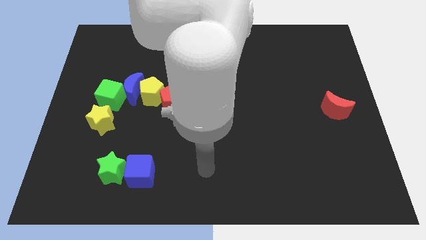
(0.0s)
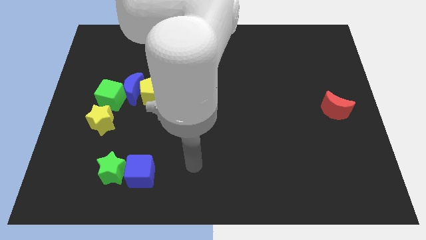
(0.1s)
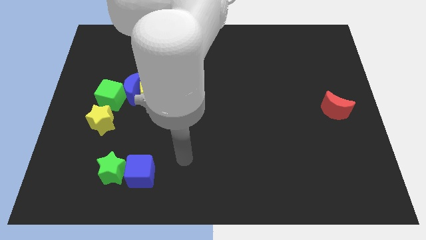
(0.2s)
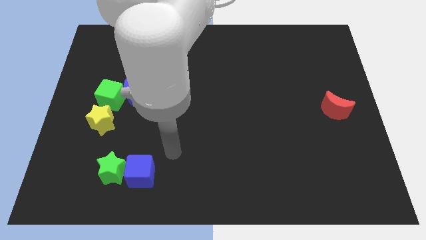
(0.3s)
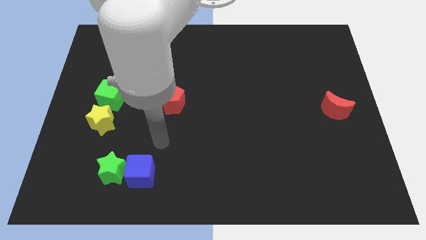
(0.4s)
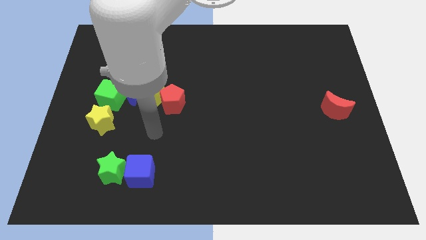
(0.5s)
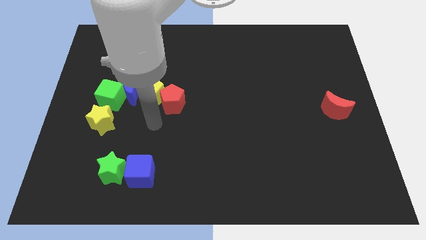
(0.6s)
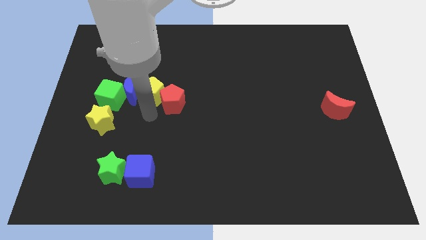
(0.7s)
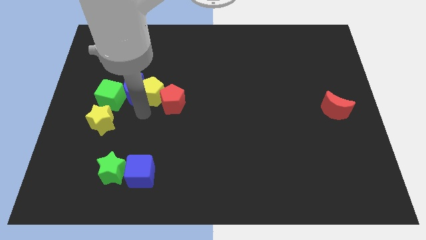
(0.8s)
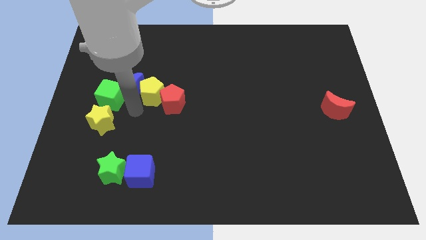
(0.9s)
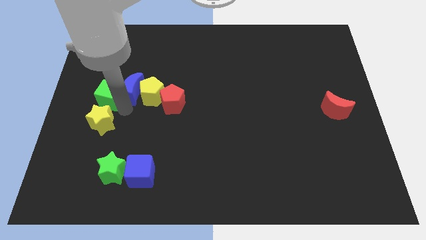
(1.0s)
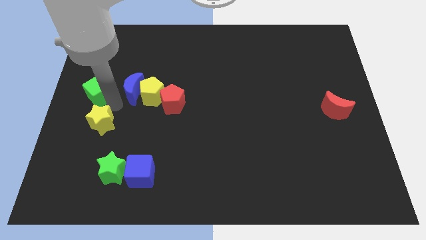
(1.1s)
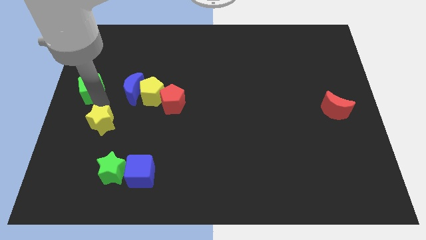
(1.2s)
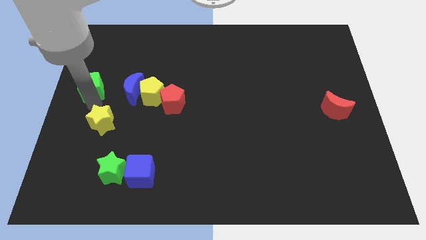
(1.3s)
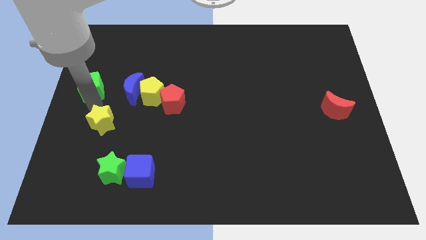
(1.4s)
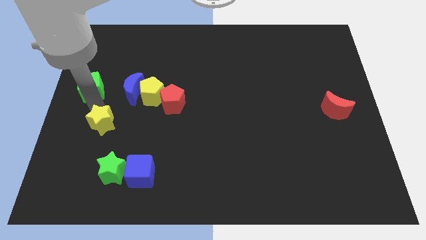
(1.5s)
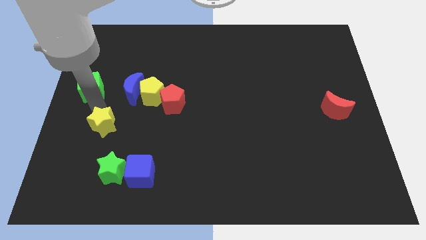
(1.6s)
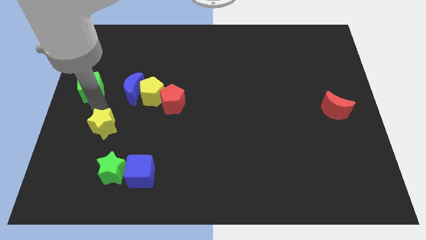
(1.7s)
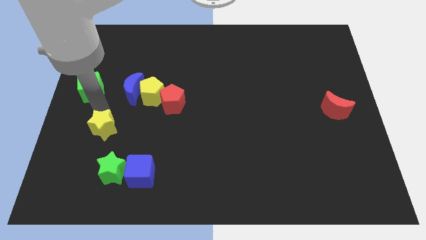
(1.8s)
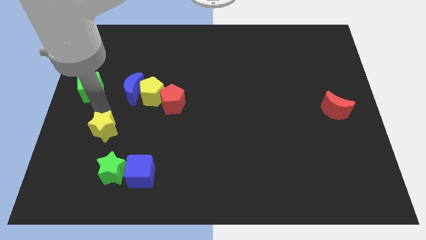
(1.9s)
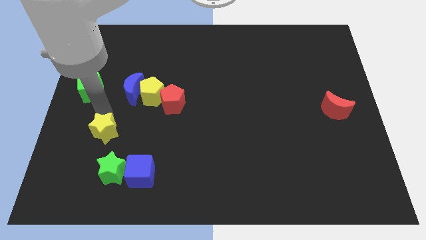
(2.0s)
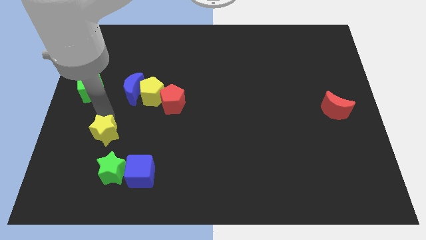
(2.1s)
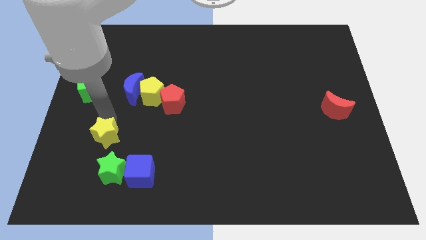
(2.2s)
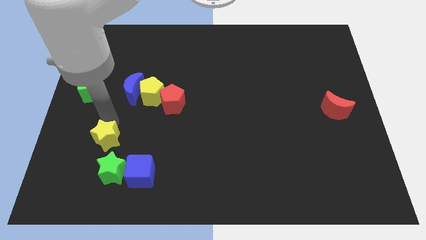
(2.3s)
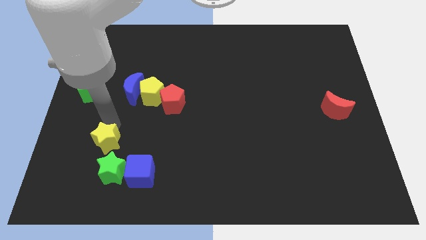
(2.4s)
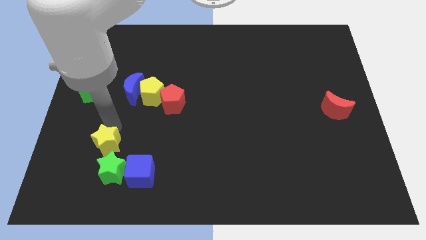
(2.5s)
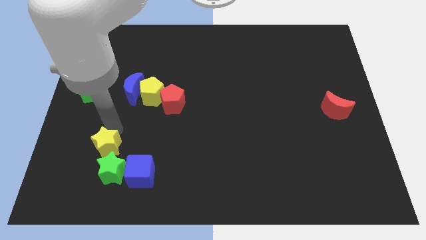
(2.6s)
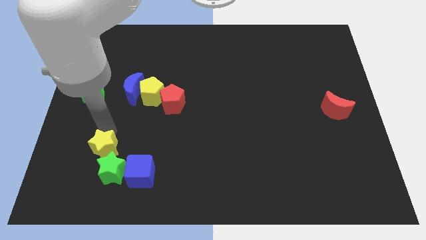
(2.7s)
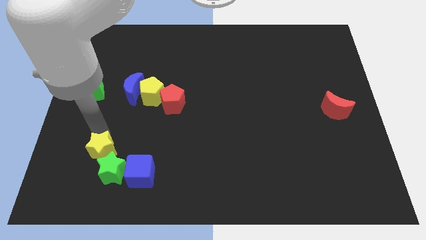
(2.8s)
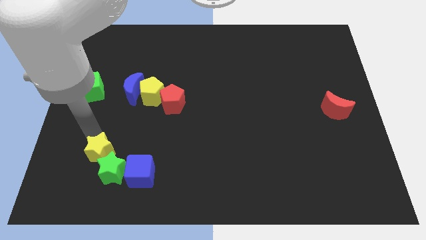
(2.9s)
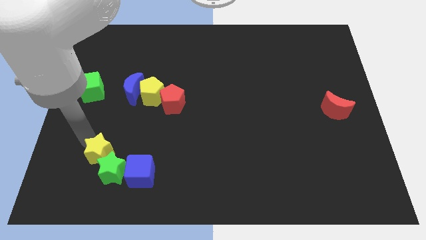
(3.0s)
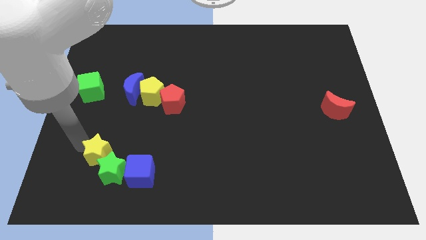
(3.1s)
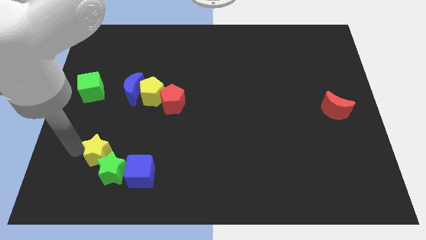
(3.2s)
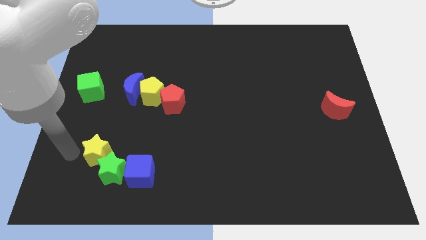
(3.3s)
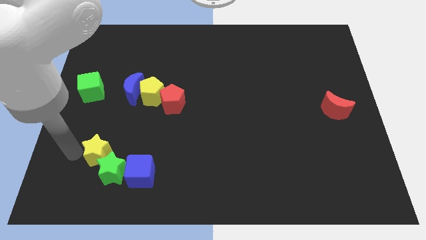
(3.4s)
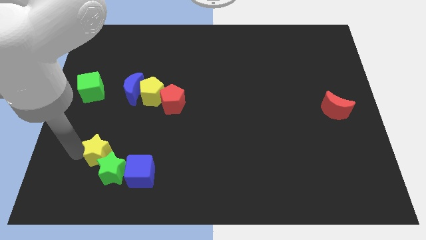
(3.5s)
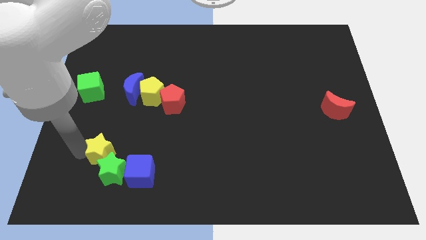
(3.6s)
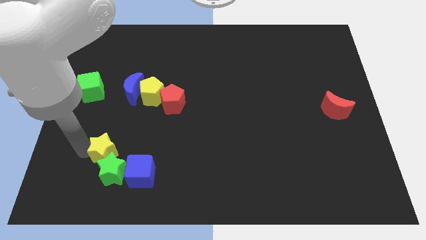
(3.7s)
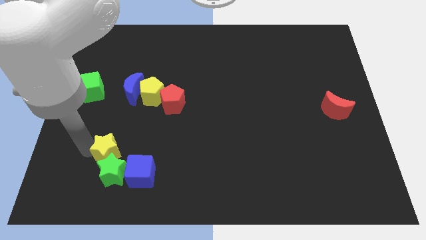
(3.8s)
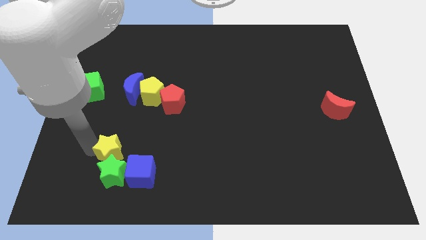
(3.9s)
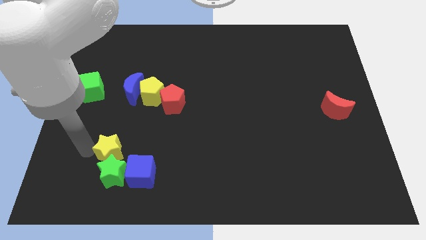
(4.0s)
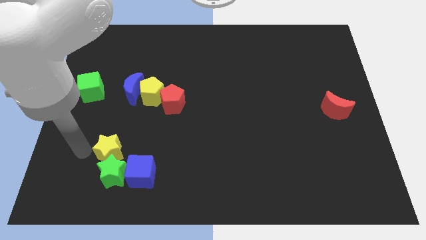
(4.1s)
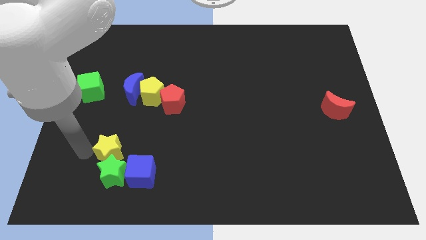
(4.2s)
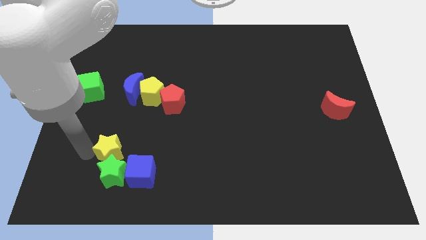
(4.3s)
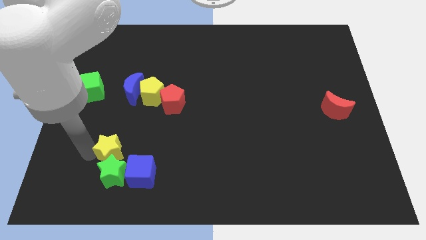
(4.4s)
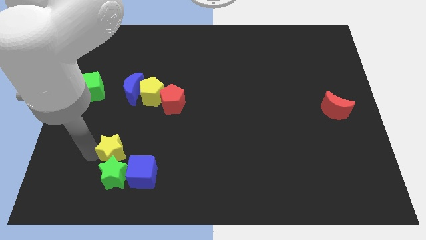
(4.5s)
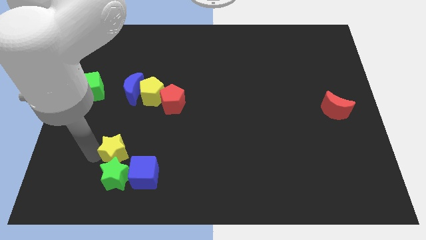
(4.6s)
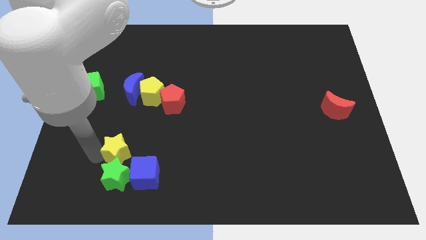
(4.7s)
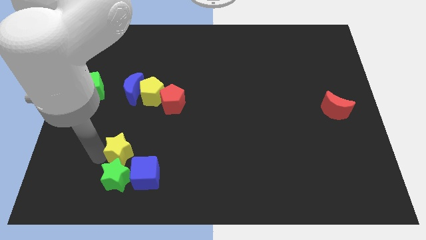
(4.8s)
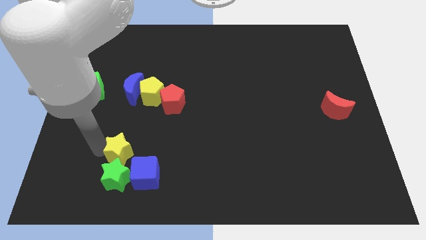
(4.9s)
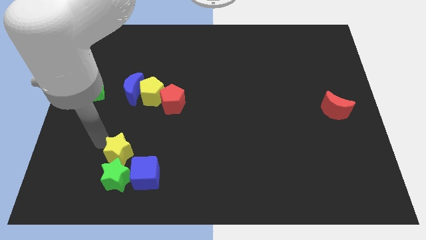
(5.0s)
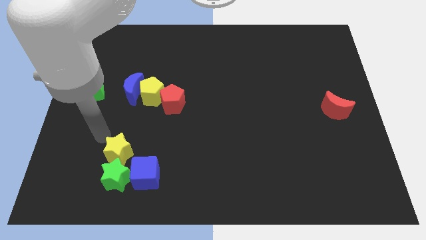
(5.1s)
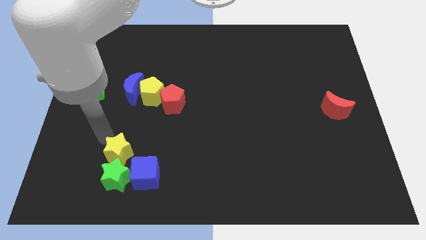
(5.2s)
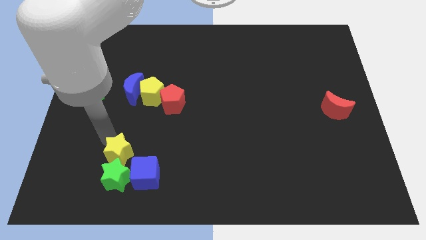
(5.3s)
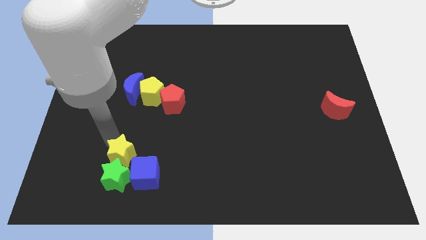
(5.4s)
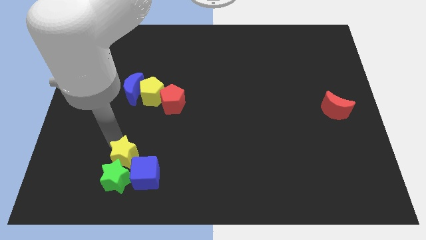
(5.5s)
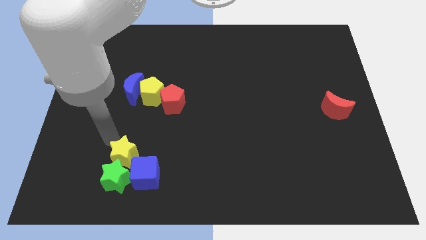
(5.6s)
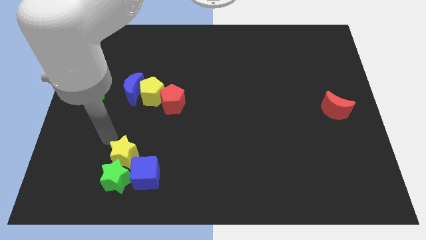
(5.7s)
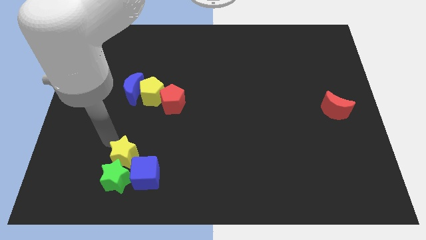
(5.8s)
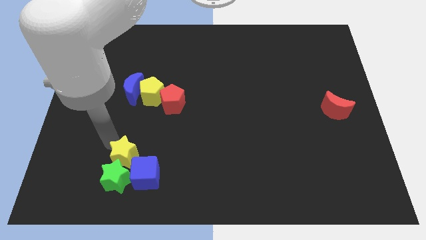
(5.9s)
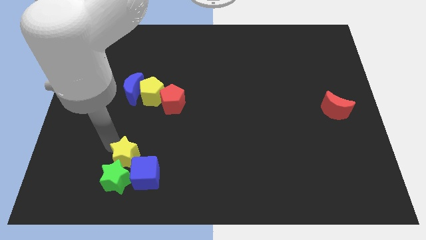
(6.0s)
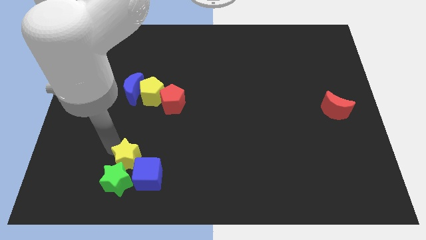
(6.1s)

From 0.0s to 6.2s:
put the yellow star next to the blue cube

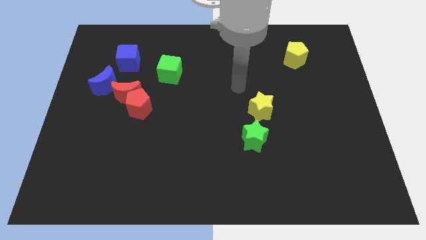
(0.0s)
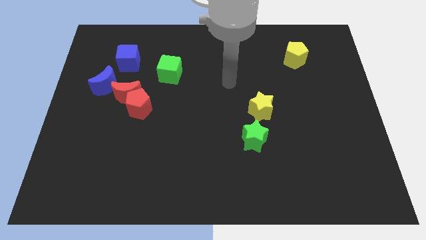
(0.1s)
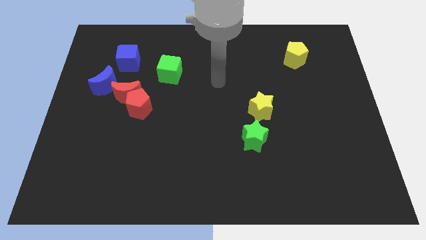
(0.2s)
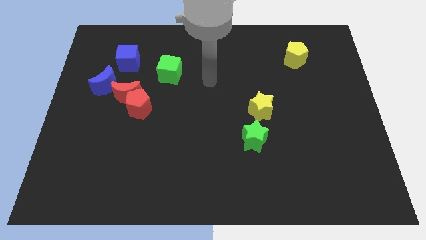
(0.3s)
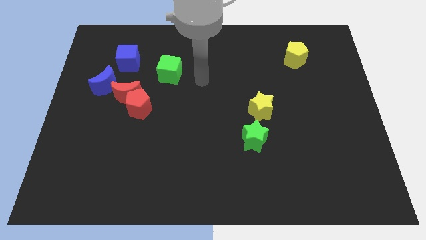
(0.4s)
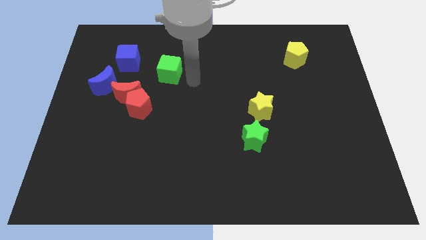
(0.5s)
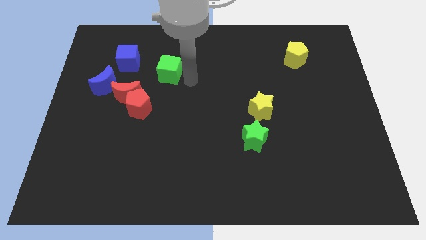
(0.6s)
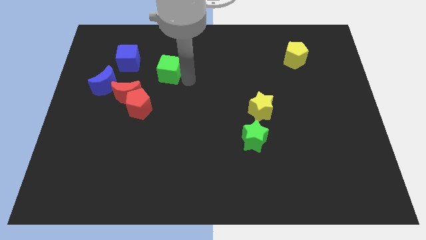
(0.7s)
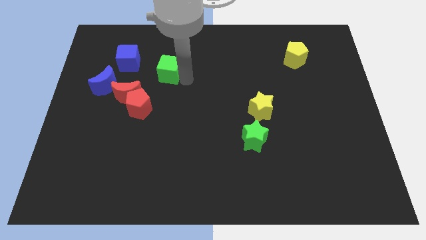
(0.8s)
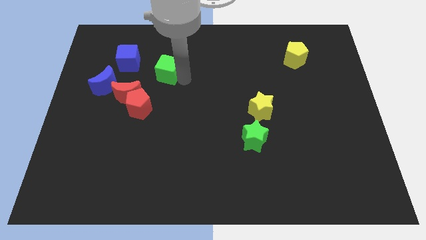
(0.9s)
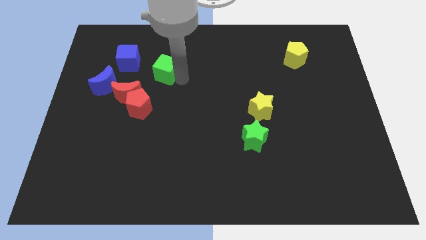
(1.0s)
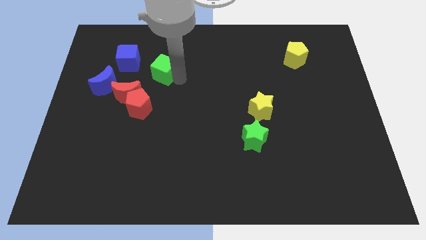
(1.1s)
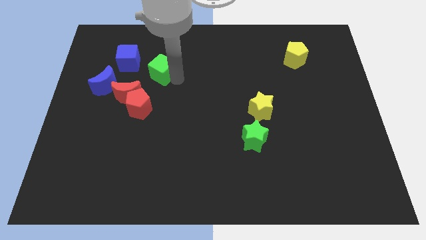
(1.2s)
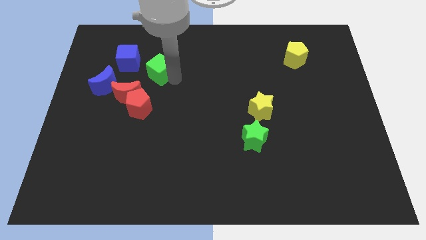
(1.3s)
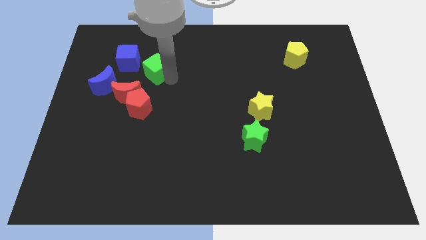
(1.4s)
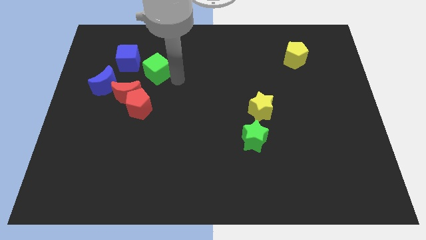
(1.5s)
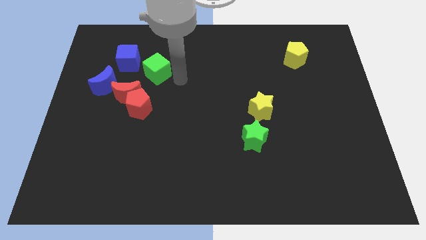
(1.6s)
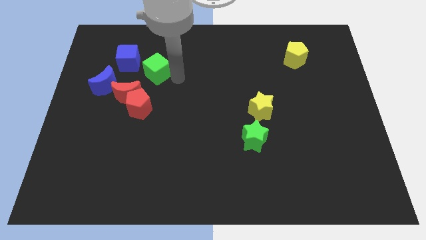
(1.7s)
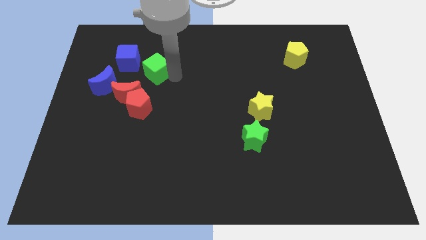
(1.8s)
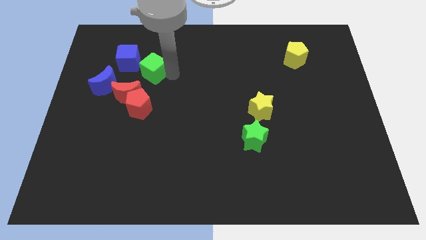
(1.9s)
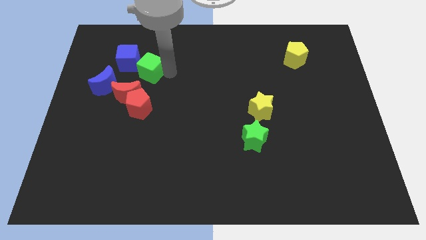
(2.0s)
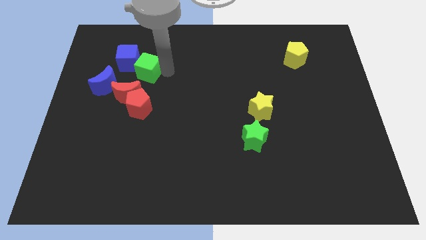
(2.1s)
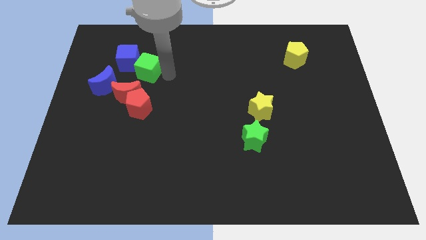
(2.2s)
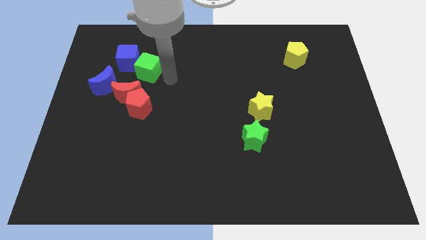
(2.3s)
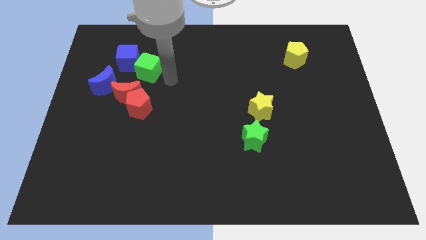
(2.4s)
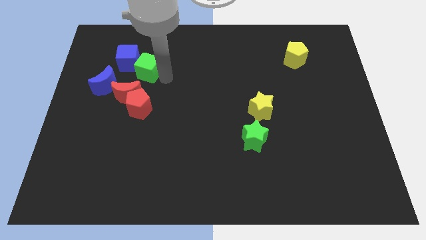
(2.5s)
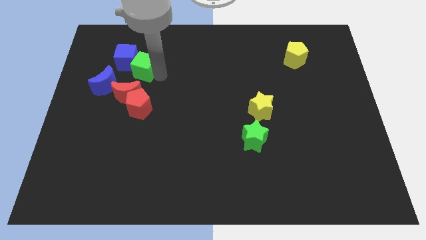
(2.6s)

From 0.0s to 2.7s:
slide the green cube close to the blue cube
